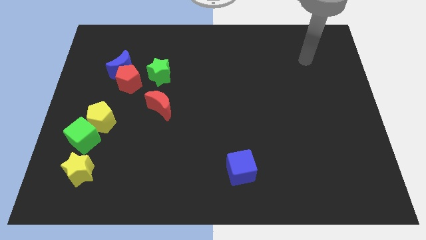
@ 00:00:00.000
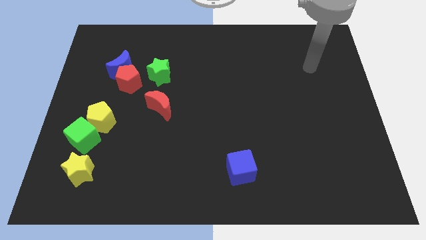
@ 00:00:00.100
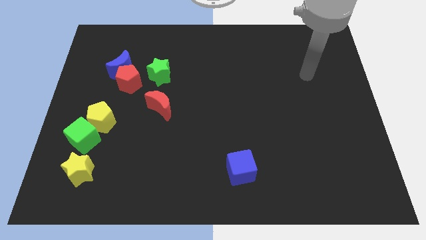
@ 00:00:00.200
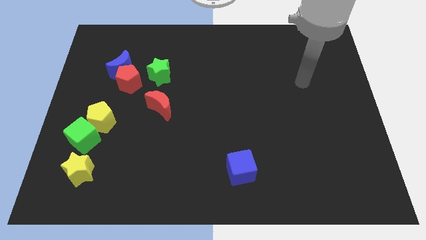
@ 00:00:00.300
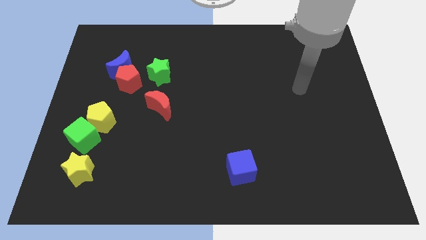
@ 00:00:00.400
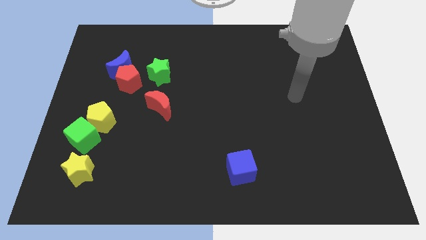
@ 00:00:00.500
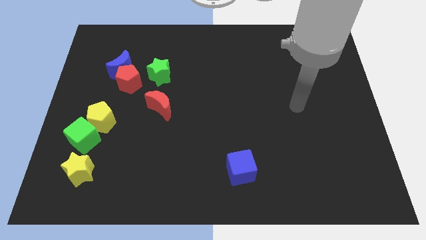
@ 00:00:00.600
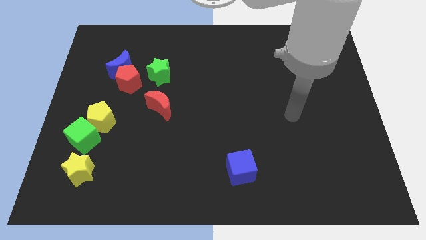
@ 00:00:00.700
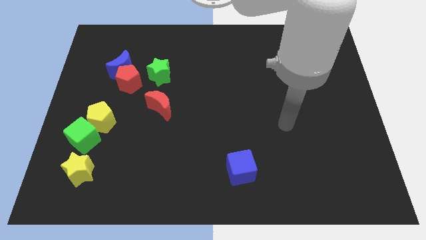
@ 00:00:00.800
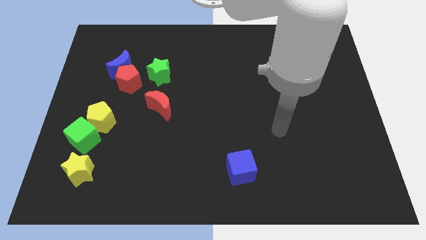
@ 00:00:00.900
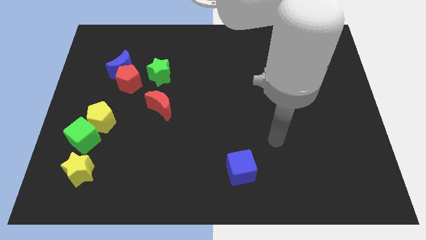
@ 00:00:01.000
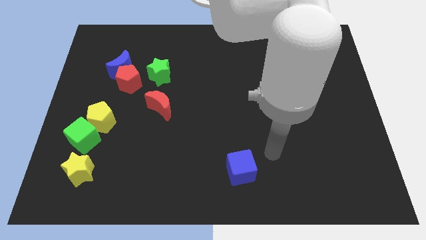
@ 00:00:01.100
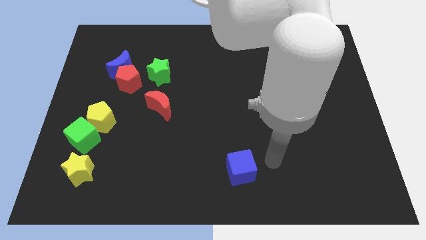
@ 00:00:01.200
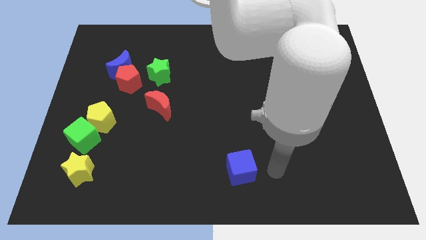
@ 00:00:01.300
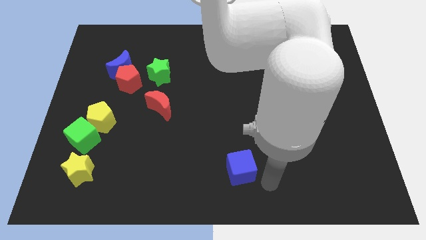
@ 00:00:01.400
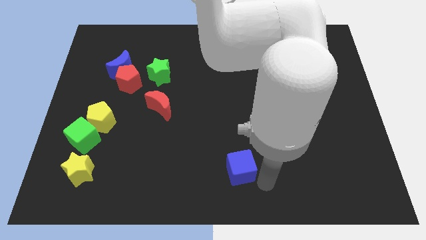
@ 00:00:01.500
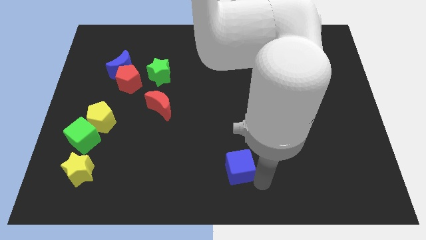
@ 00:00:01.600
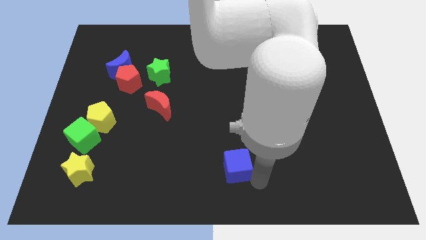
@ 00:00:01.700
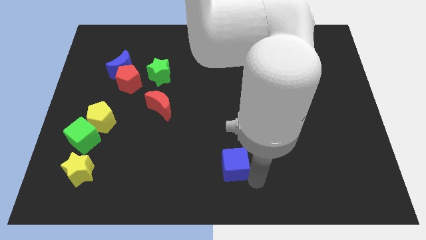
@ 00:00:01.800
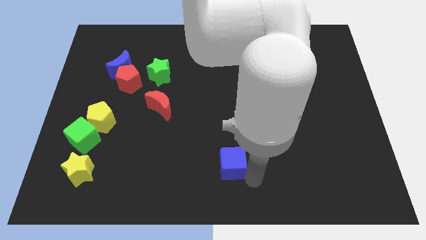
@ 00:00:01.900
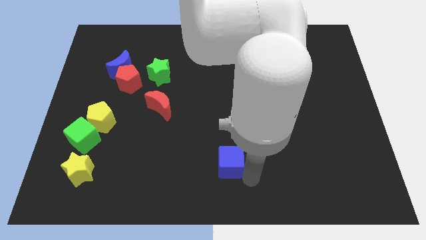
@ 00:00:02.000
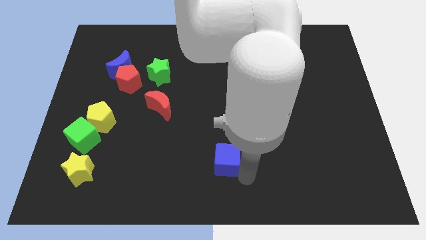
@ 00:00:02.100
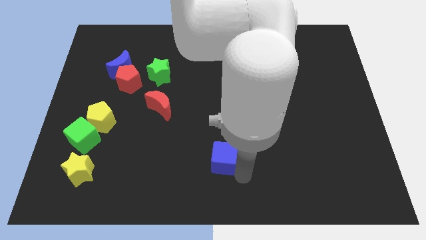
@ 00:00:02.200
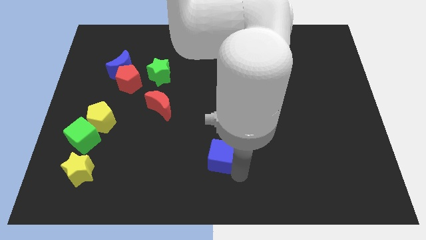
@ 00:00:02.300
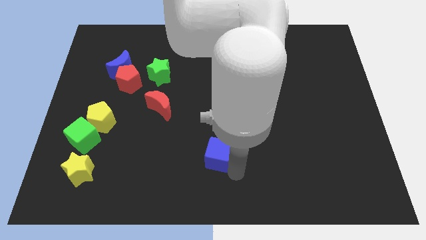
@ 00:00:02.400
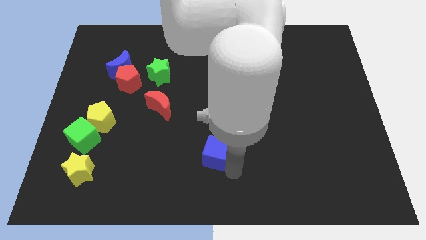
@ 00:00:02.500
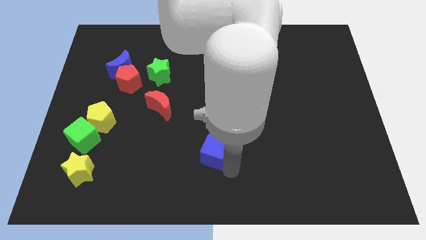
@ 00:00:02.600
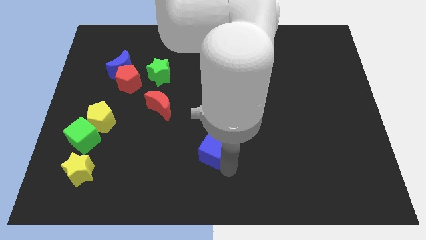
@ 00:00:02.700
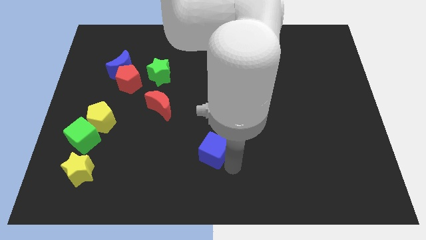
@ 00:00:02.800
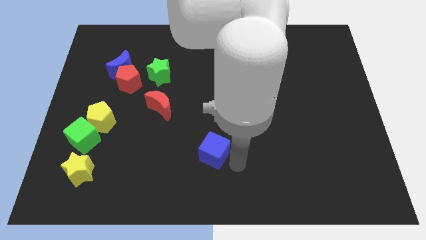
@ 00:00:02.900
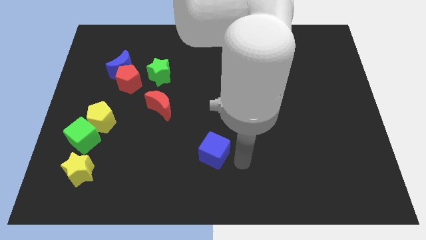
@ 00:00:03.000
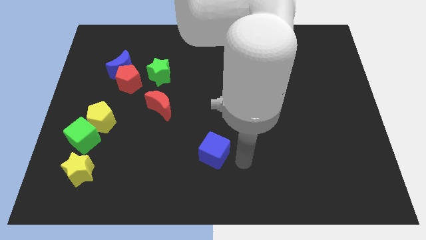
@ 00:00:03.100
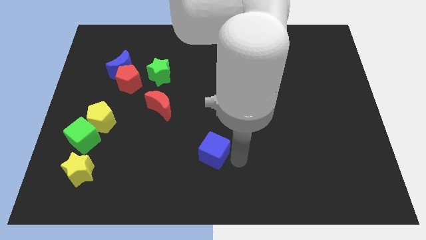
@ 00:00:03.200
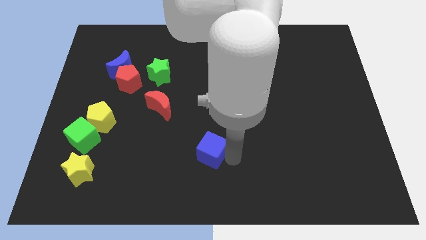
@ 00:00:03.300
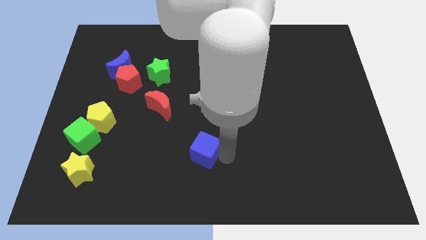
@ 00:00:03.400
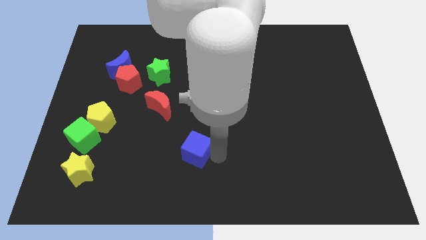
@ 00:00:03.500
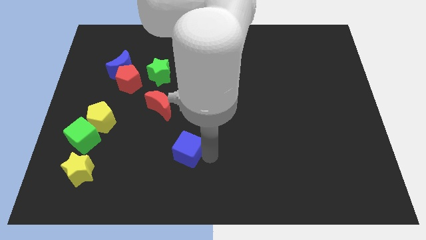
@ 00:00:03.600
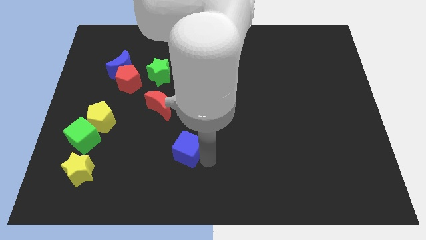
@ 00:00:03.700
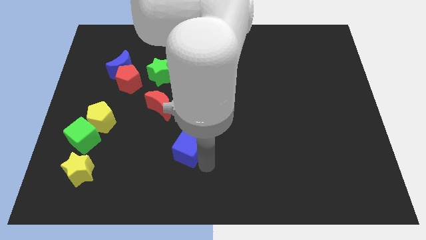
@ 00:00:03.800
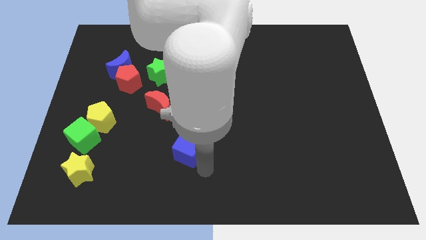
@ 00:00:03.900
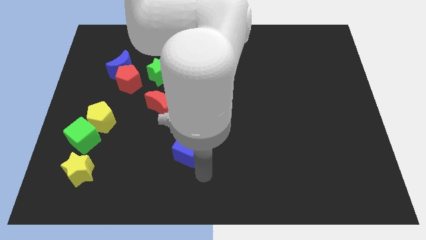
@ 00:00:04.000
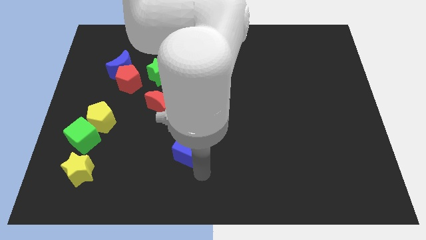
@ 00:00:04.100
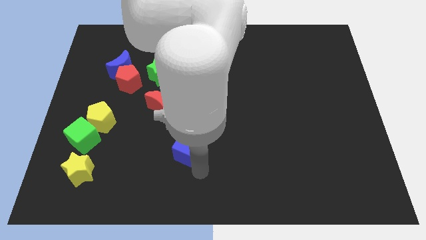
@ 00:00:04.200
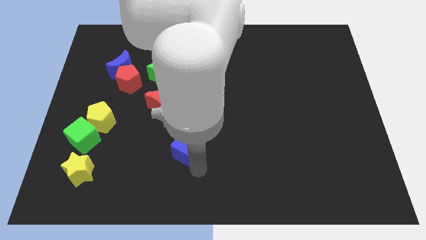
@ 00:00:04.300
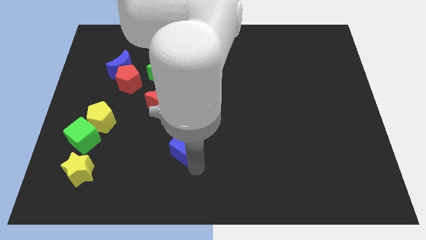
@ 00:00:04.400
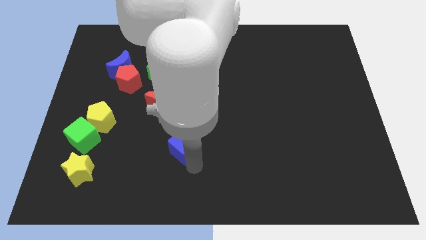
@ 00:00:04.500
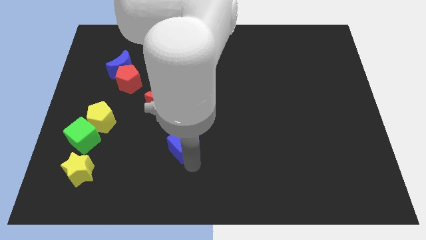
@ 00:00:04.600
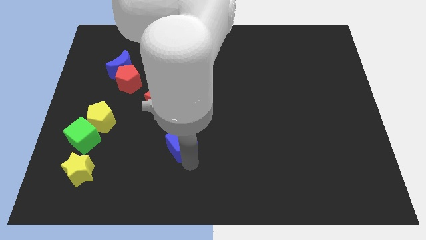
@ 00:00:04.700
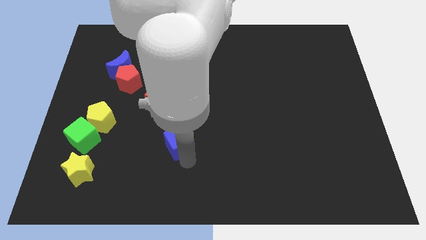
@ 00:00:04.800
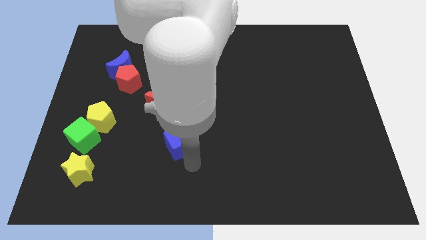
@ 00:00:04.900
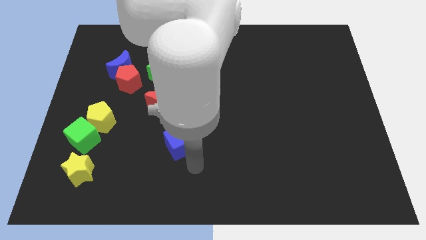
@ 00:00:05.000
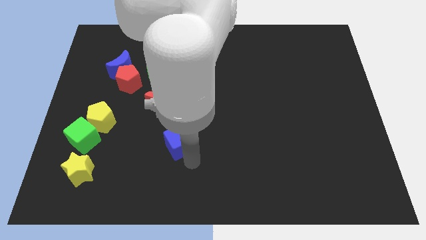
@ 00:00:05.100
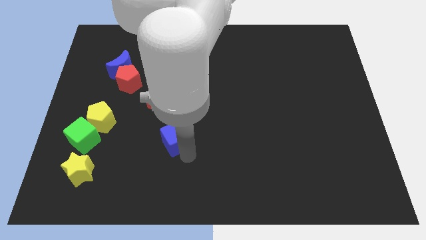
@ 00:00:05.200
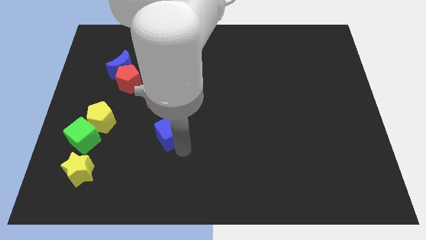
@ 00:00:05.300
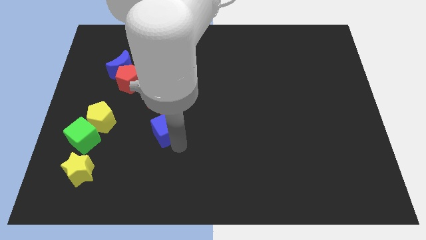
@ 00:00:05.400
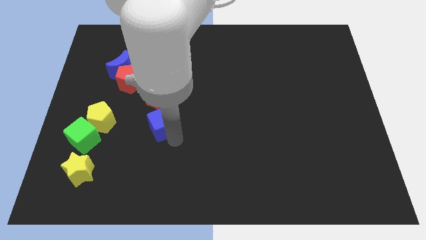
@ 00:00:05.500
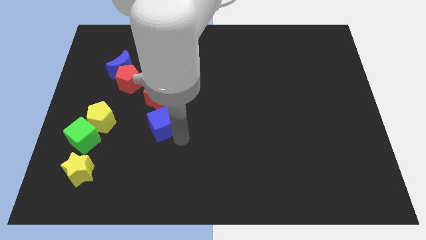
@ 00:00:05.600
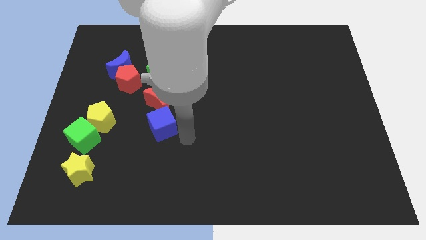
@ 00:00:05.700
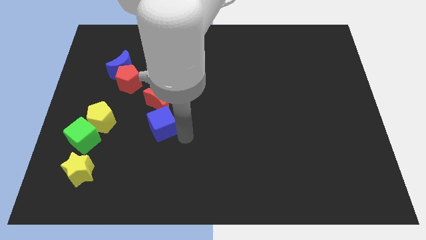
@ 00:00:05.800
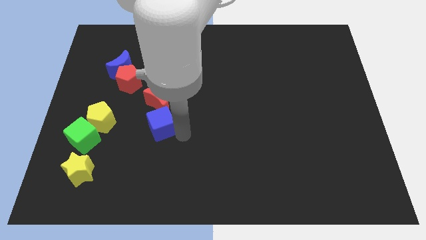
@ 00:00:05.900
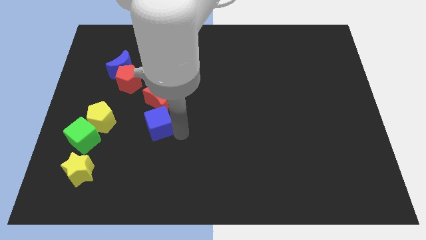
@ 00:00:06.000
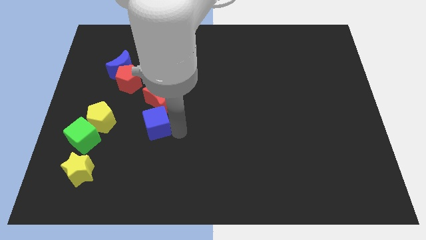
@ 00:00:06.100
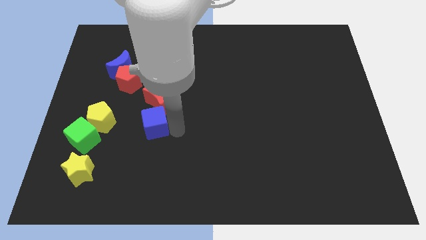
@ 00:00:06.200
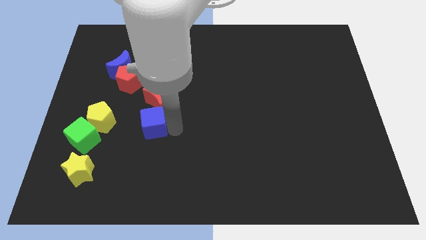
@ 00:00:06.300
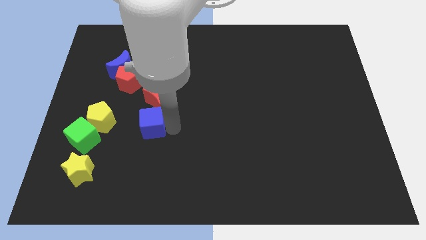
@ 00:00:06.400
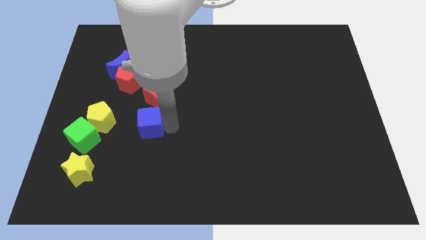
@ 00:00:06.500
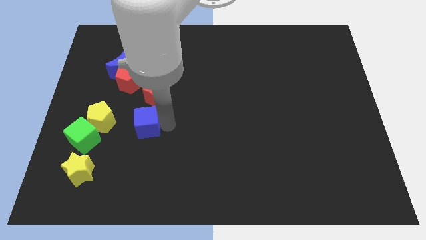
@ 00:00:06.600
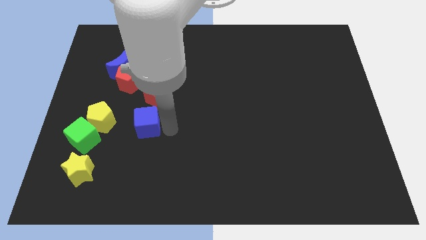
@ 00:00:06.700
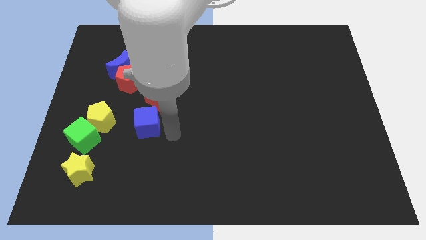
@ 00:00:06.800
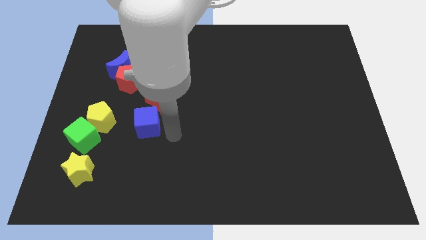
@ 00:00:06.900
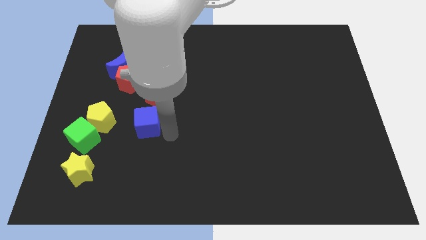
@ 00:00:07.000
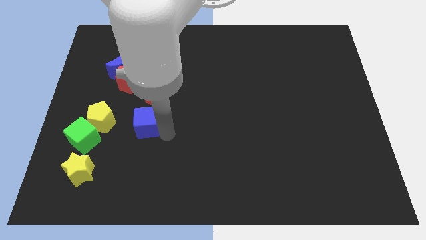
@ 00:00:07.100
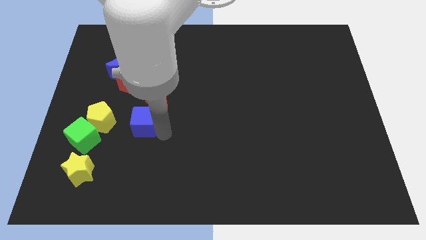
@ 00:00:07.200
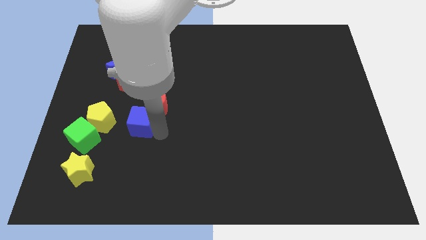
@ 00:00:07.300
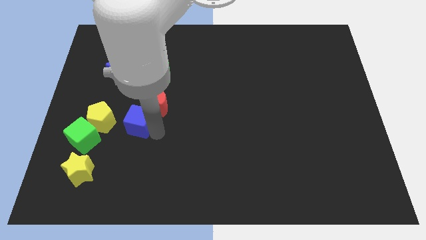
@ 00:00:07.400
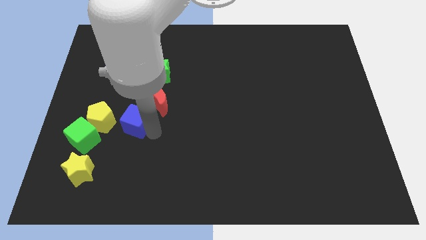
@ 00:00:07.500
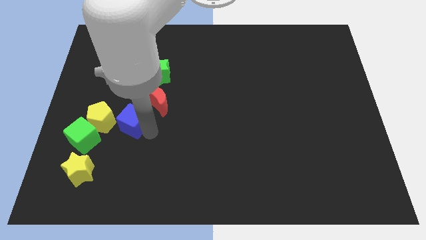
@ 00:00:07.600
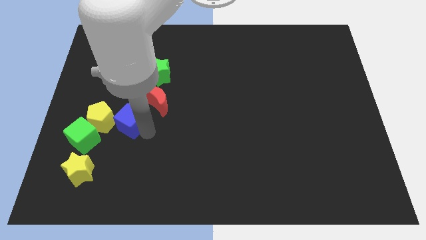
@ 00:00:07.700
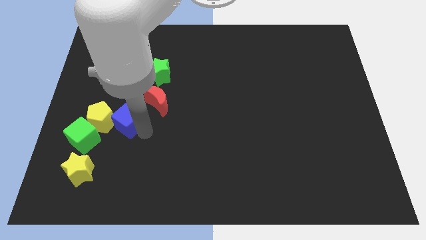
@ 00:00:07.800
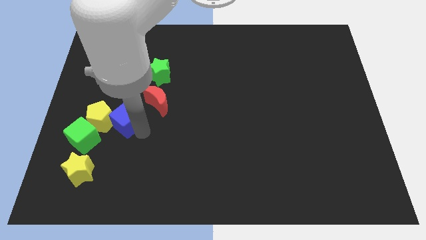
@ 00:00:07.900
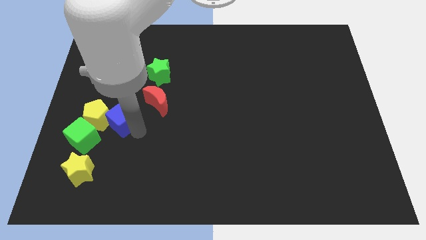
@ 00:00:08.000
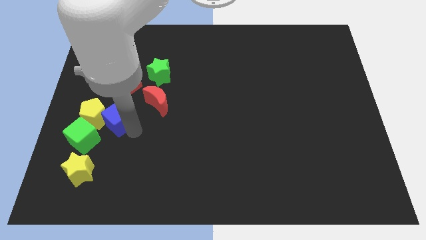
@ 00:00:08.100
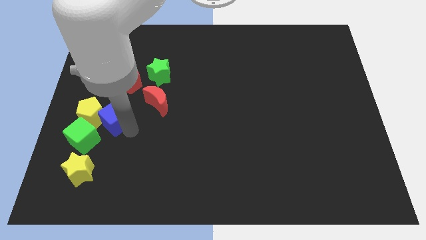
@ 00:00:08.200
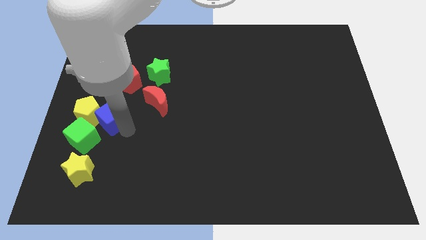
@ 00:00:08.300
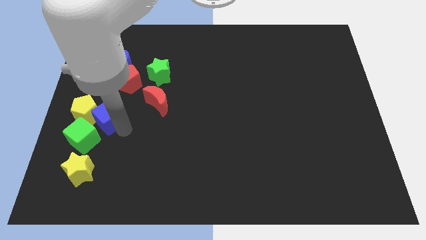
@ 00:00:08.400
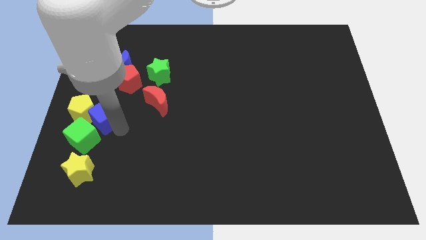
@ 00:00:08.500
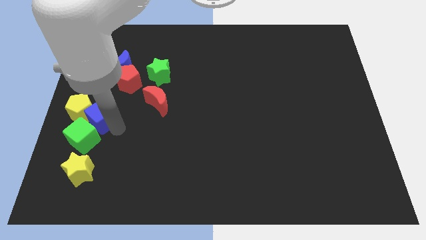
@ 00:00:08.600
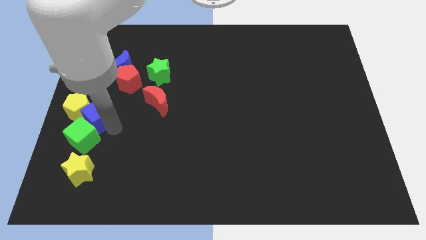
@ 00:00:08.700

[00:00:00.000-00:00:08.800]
push the blue cube to the left side of the board
